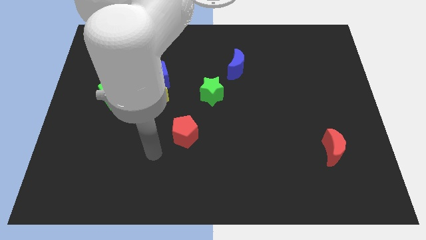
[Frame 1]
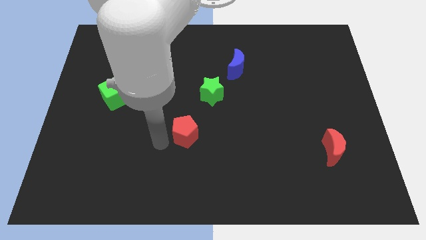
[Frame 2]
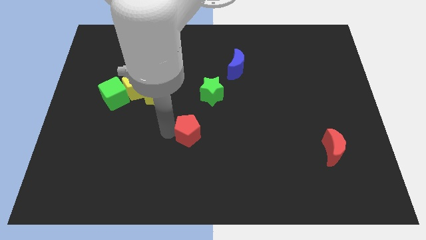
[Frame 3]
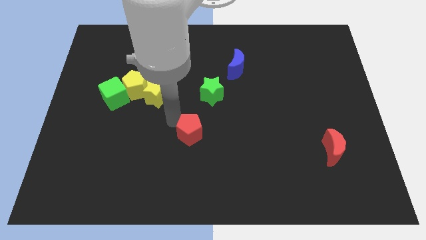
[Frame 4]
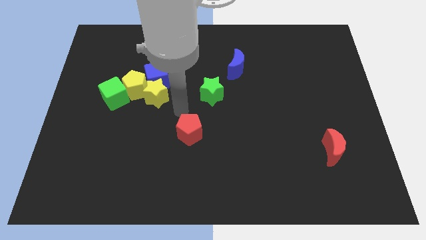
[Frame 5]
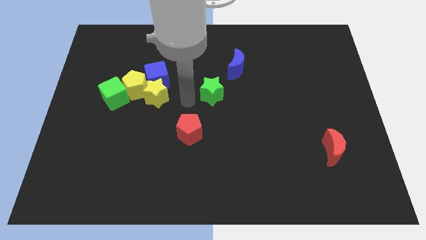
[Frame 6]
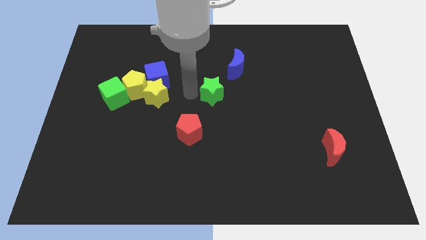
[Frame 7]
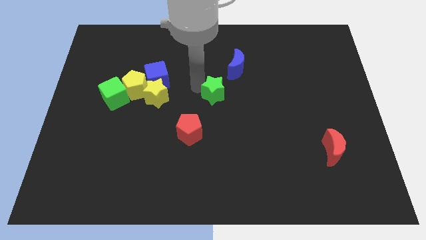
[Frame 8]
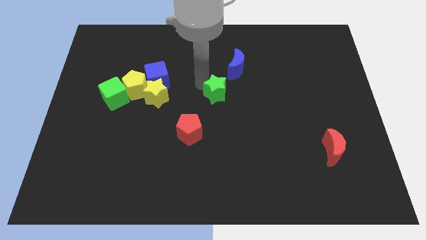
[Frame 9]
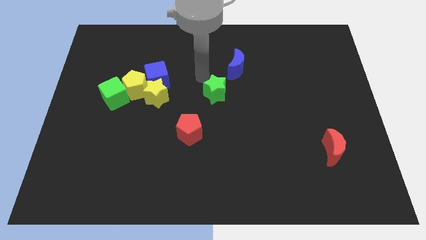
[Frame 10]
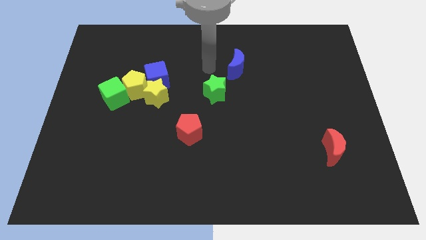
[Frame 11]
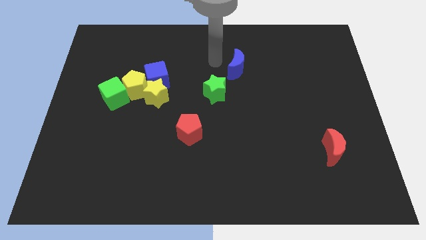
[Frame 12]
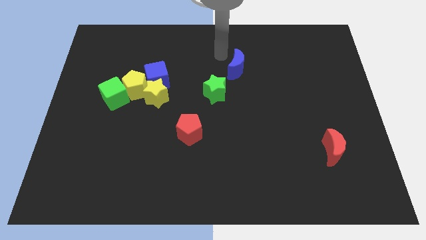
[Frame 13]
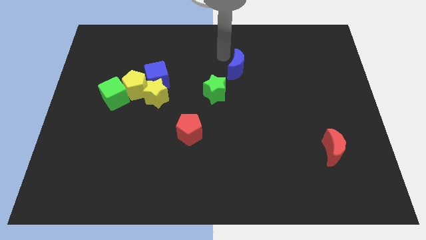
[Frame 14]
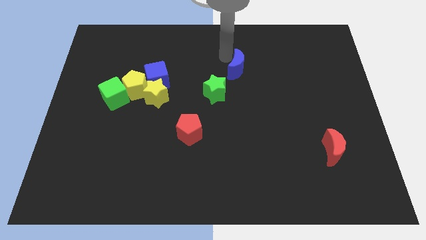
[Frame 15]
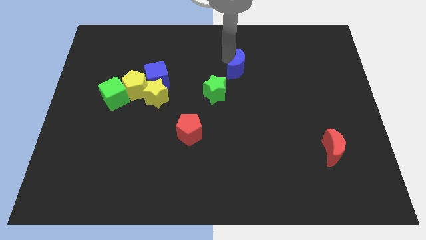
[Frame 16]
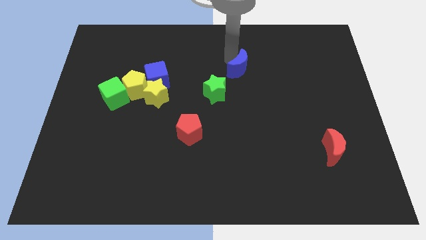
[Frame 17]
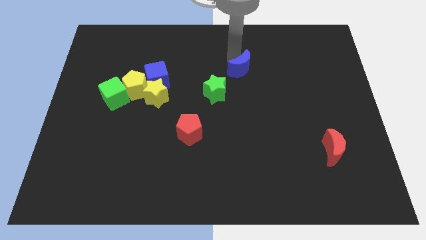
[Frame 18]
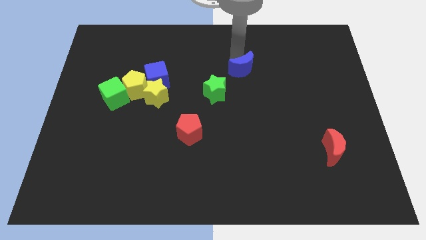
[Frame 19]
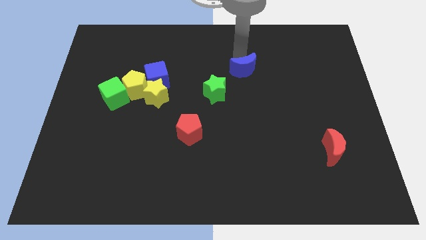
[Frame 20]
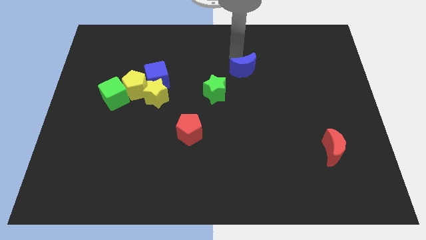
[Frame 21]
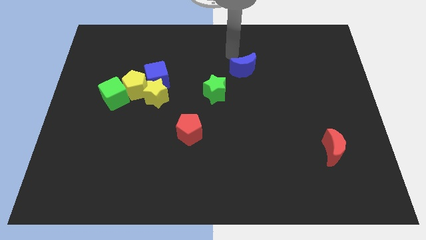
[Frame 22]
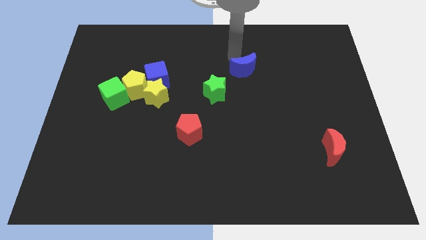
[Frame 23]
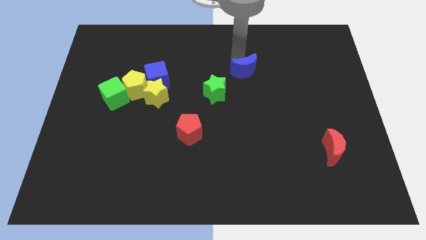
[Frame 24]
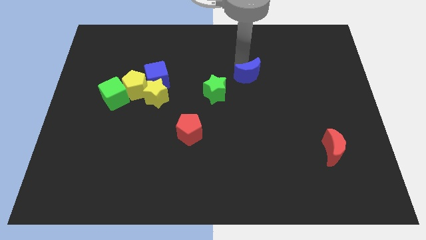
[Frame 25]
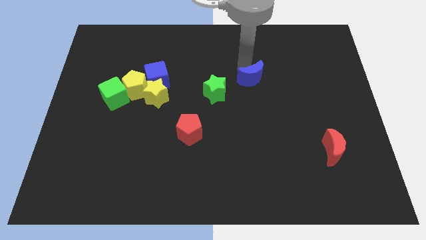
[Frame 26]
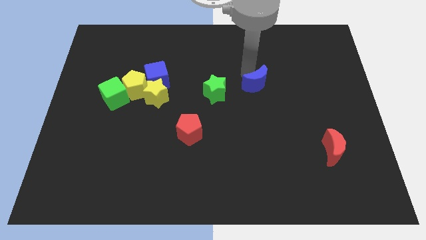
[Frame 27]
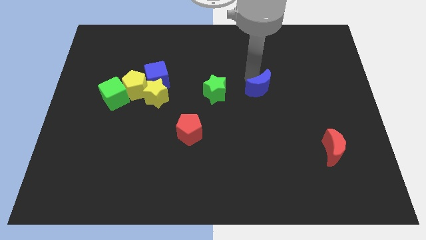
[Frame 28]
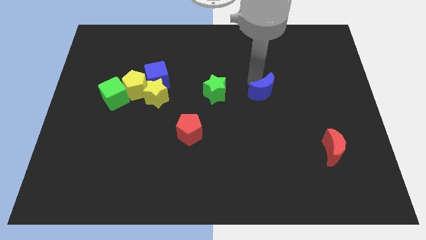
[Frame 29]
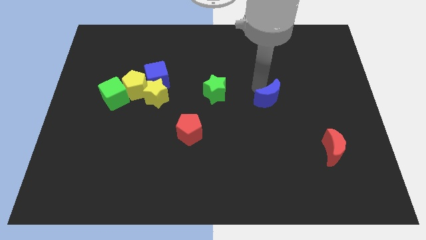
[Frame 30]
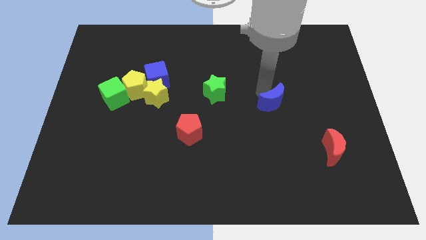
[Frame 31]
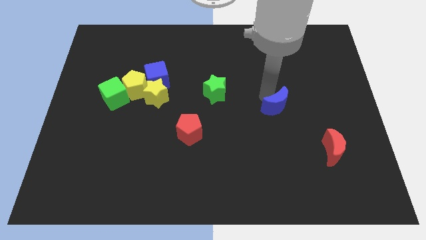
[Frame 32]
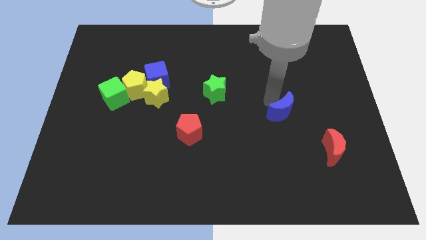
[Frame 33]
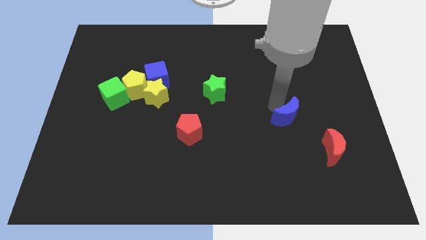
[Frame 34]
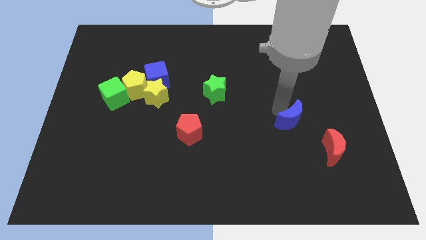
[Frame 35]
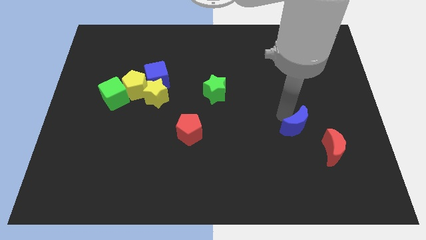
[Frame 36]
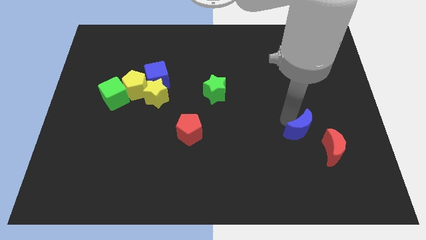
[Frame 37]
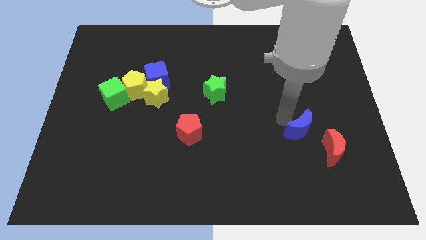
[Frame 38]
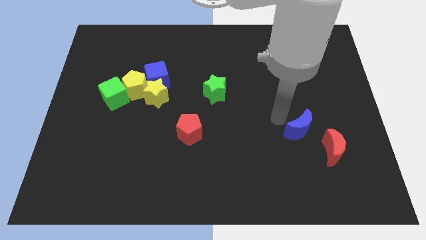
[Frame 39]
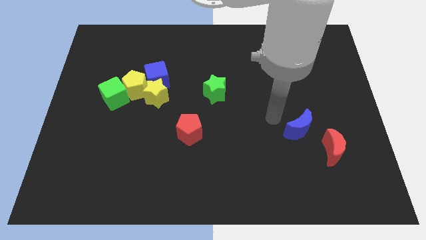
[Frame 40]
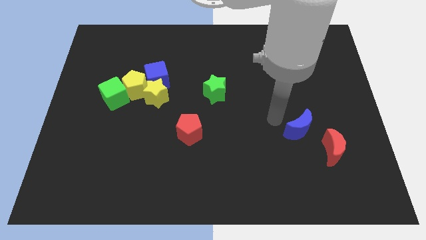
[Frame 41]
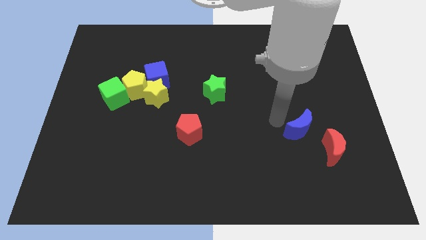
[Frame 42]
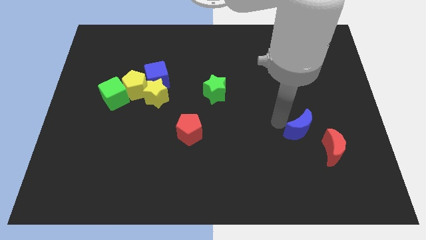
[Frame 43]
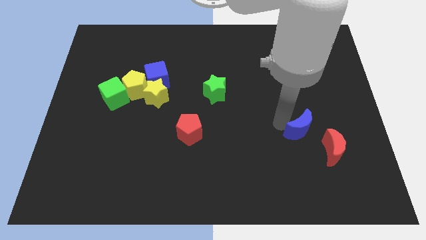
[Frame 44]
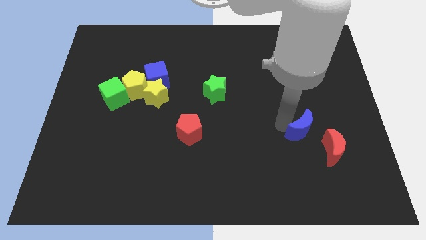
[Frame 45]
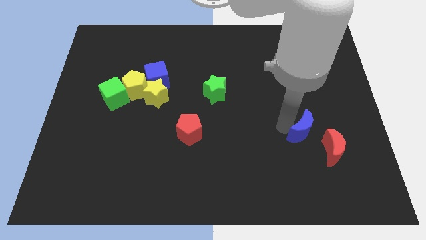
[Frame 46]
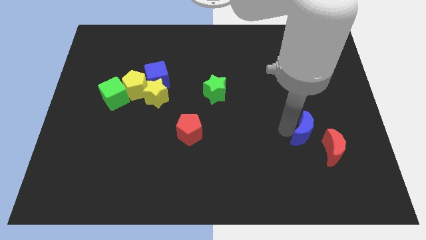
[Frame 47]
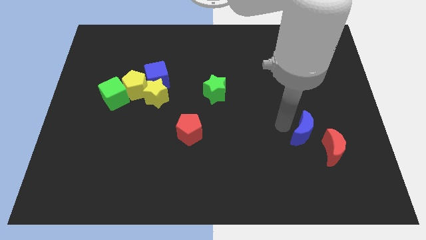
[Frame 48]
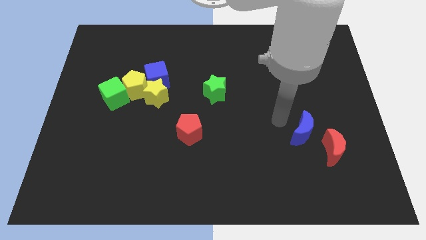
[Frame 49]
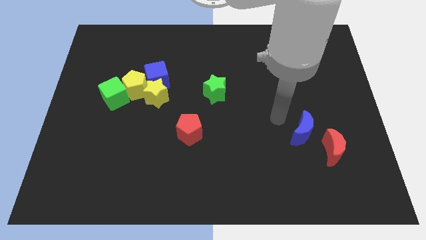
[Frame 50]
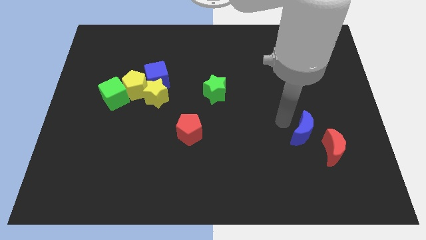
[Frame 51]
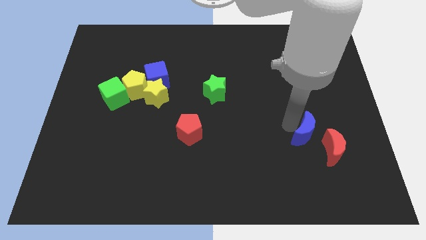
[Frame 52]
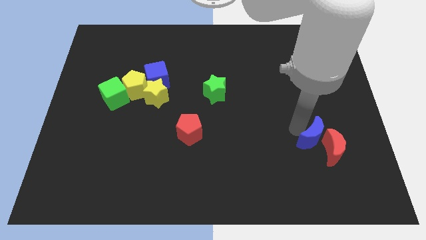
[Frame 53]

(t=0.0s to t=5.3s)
slide the blue moon towards the red moon

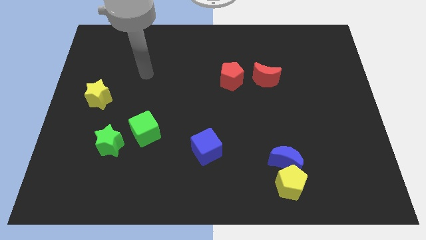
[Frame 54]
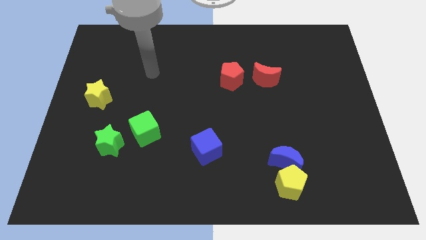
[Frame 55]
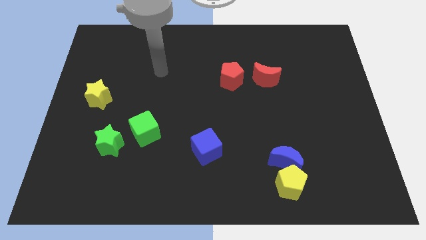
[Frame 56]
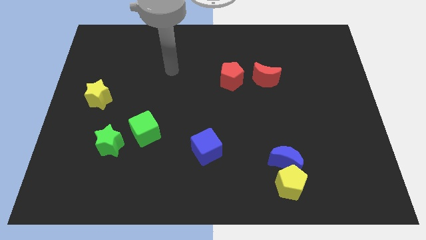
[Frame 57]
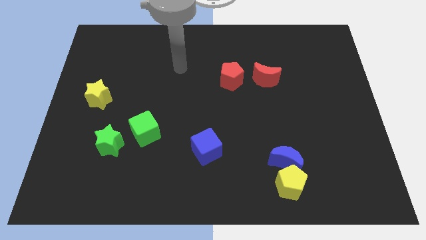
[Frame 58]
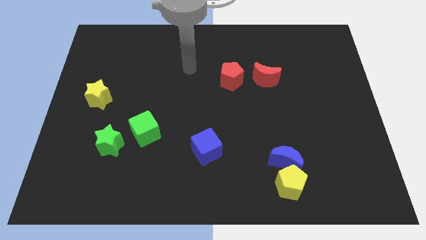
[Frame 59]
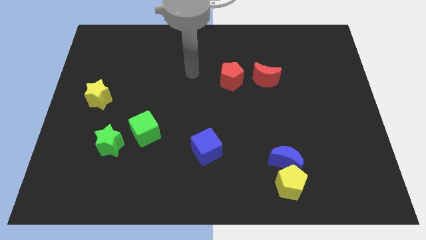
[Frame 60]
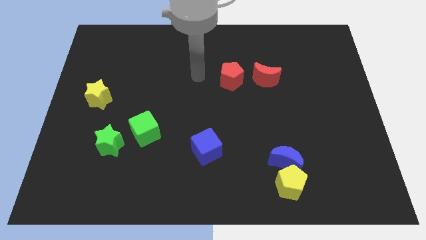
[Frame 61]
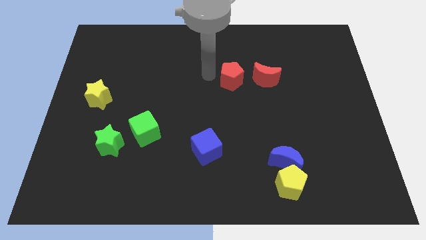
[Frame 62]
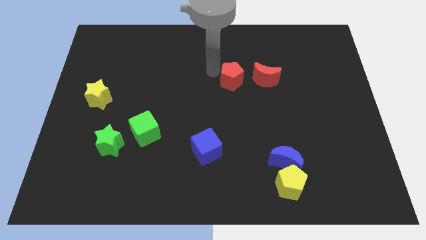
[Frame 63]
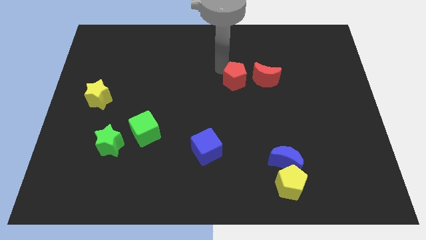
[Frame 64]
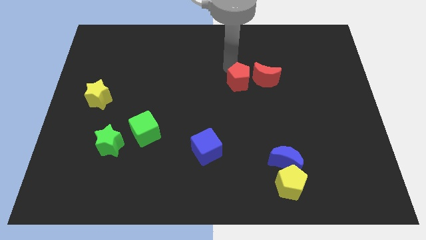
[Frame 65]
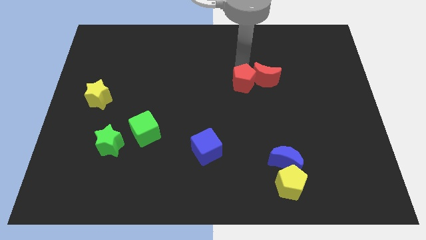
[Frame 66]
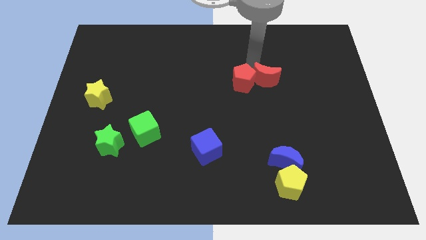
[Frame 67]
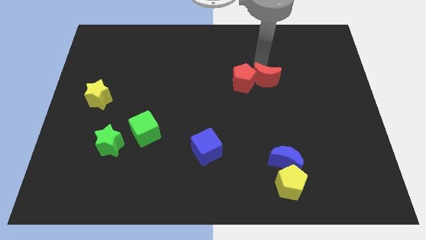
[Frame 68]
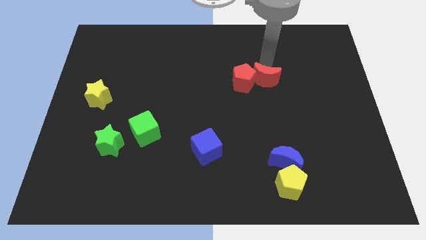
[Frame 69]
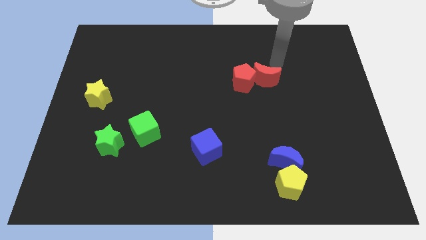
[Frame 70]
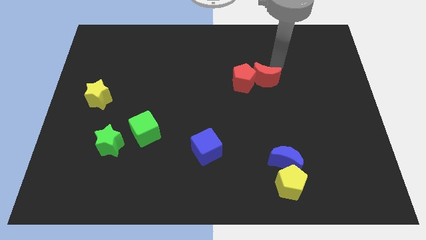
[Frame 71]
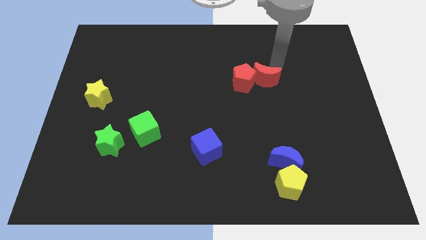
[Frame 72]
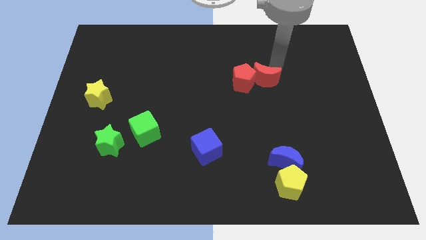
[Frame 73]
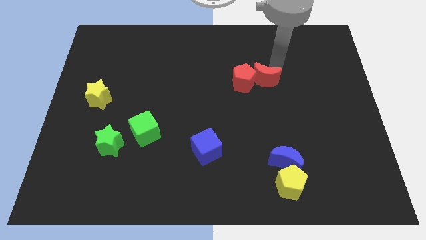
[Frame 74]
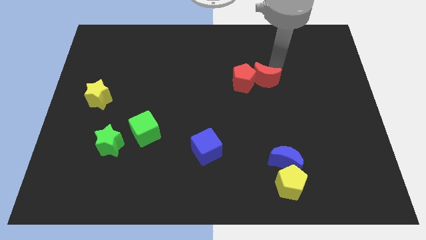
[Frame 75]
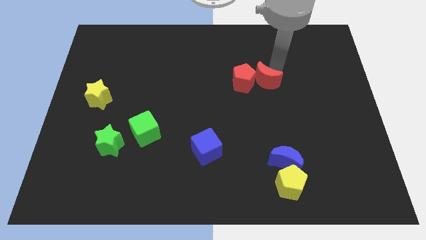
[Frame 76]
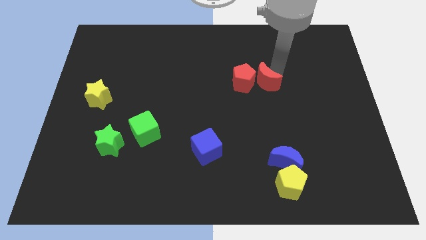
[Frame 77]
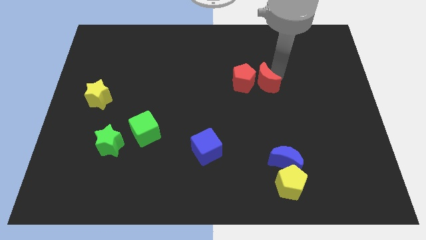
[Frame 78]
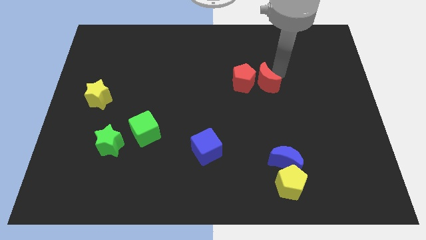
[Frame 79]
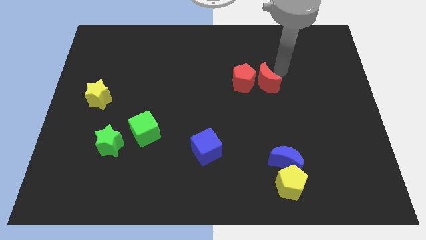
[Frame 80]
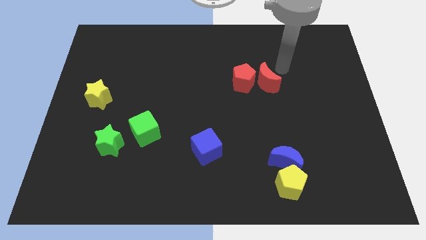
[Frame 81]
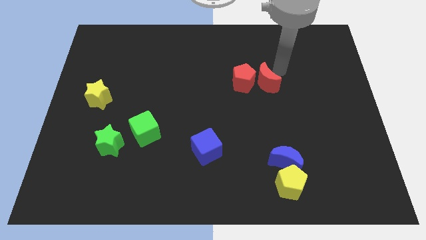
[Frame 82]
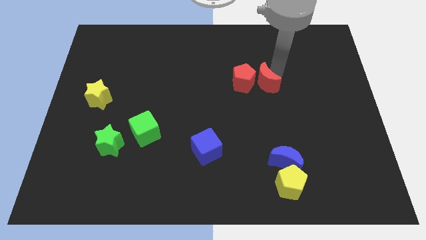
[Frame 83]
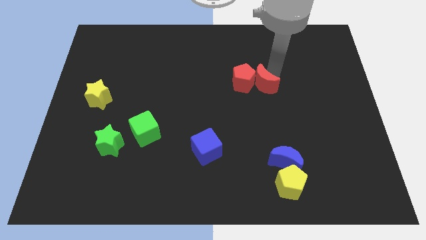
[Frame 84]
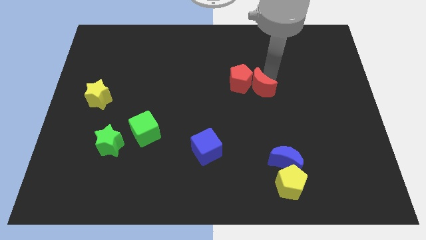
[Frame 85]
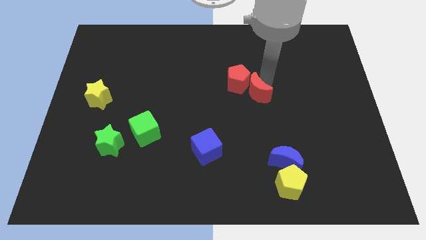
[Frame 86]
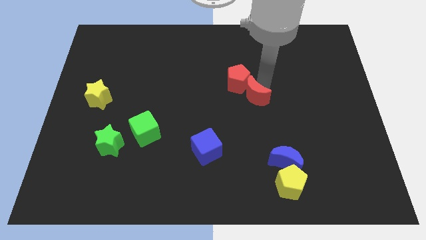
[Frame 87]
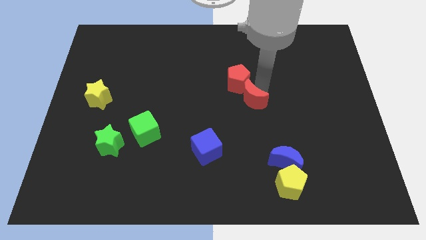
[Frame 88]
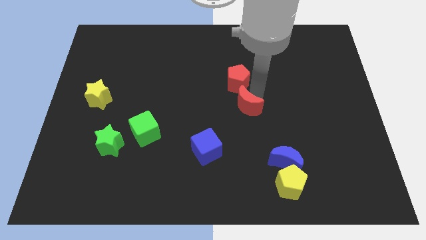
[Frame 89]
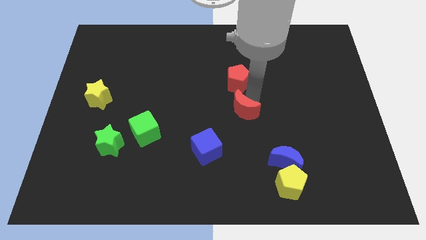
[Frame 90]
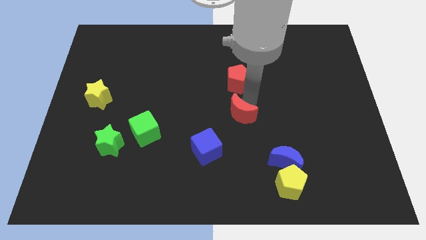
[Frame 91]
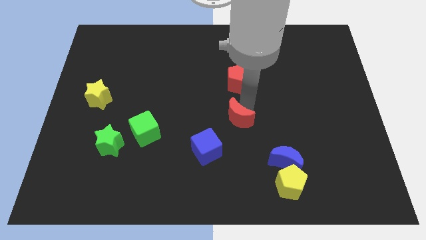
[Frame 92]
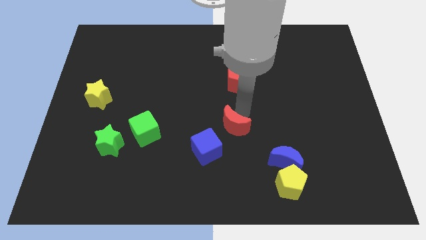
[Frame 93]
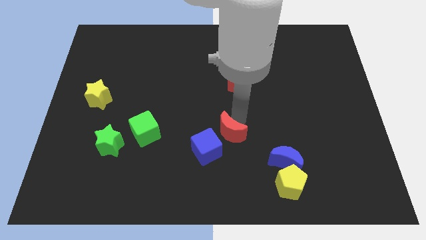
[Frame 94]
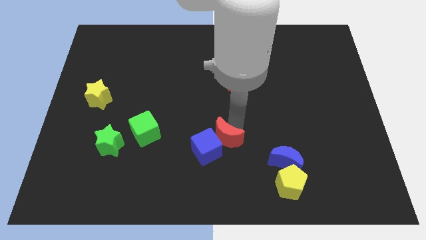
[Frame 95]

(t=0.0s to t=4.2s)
slide the red moon to the blue cube
